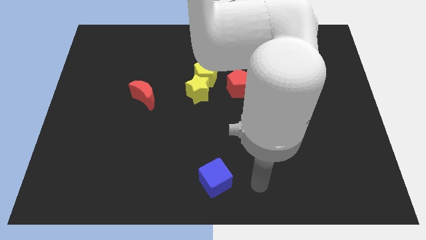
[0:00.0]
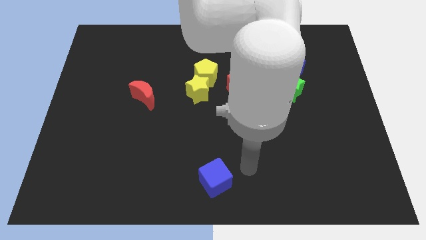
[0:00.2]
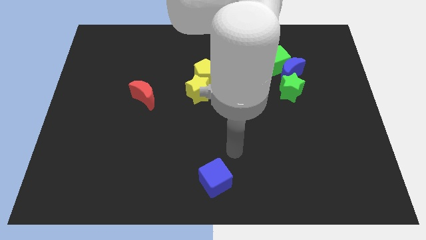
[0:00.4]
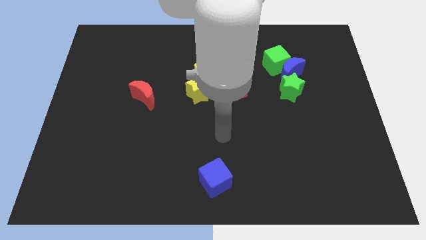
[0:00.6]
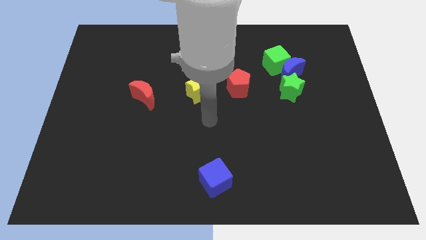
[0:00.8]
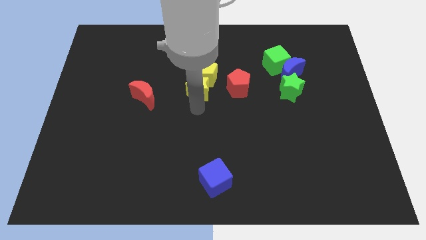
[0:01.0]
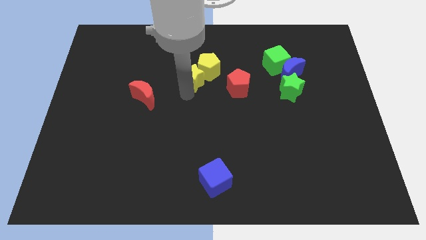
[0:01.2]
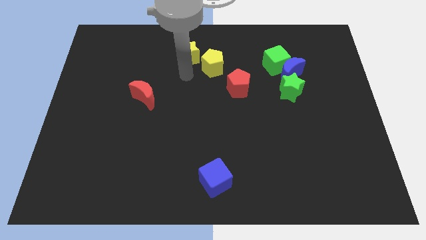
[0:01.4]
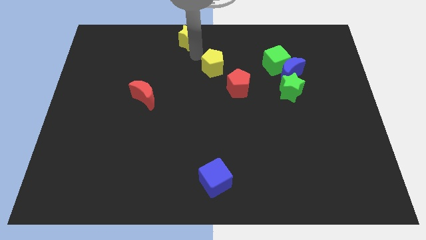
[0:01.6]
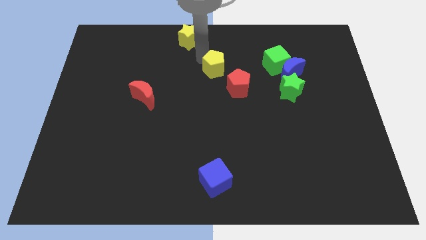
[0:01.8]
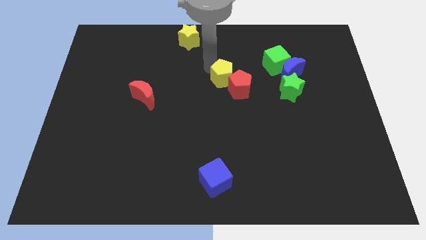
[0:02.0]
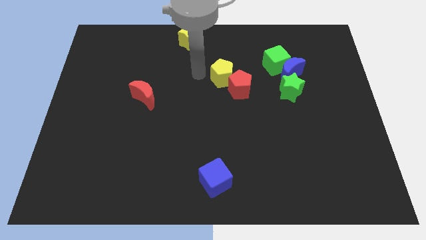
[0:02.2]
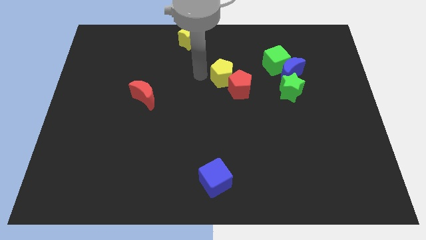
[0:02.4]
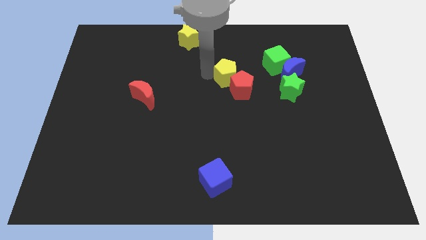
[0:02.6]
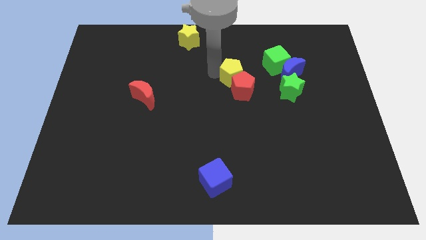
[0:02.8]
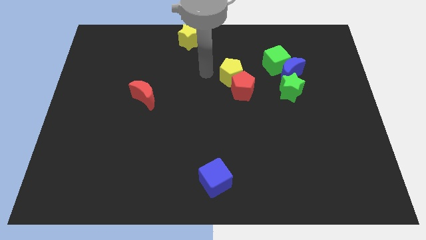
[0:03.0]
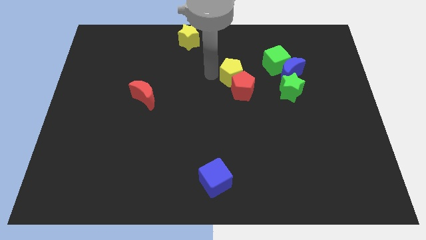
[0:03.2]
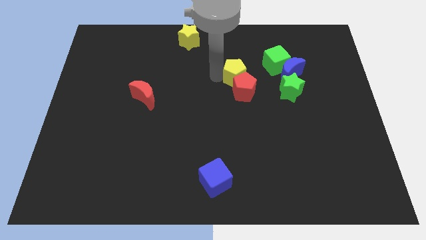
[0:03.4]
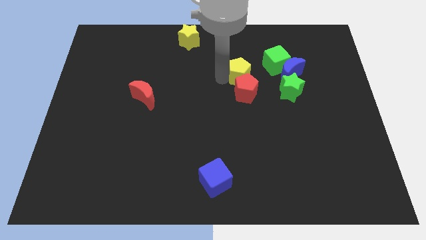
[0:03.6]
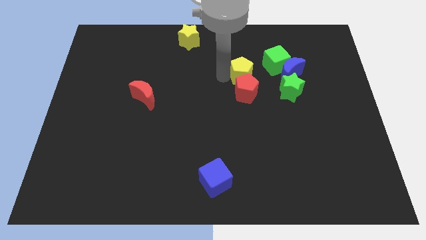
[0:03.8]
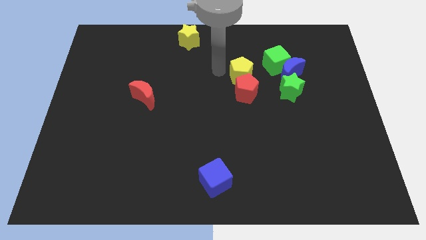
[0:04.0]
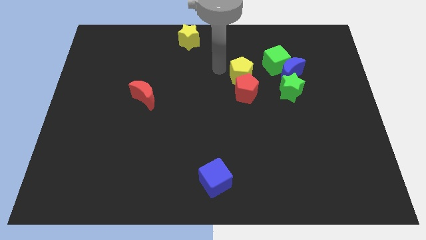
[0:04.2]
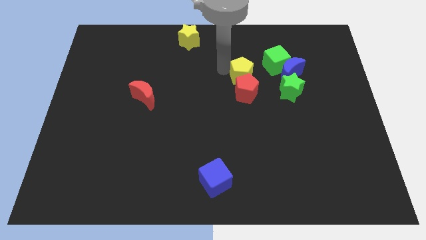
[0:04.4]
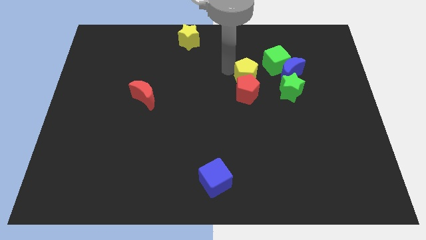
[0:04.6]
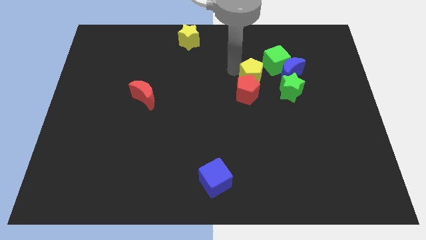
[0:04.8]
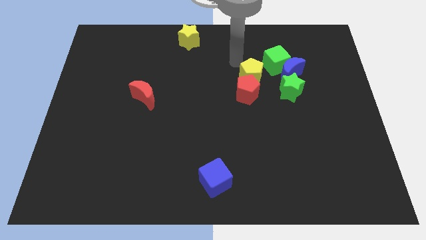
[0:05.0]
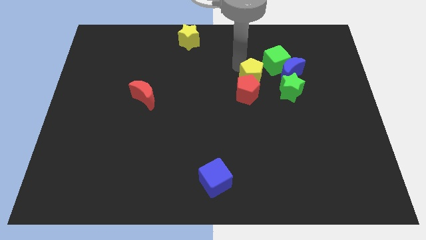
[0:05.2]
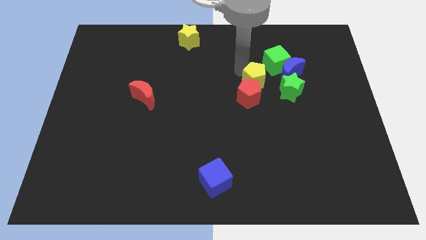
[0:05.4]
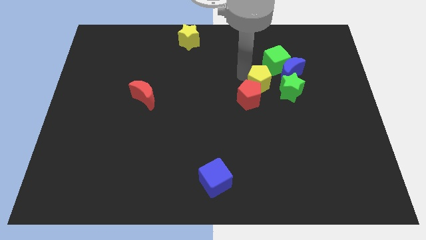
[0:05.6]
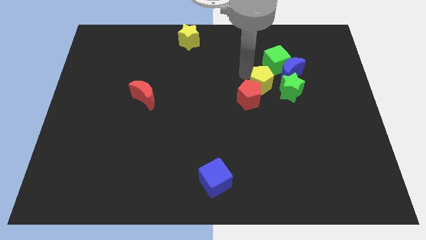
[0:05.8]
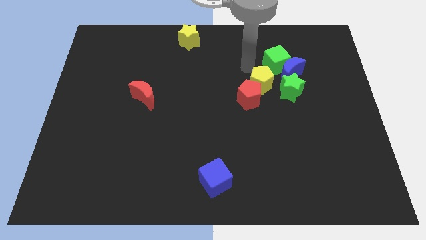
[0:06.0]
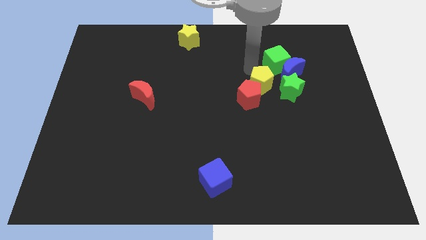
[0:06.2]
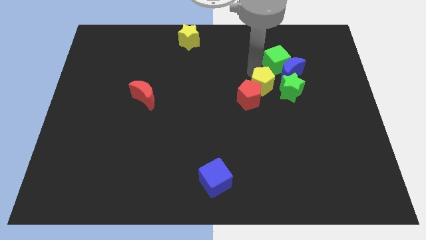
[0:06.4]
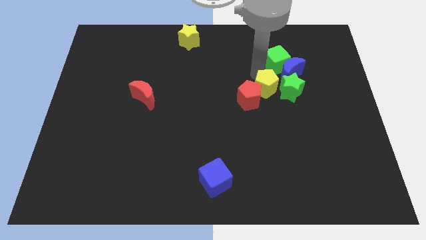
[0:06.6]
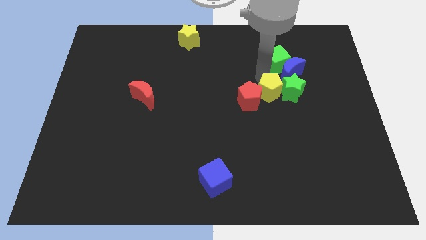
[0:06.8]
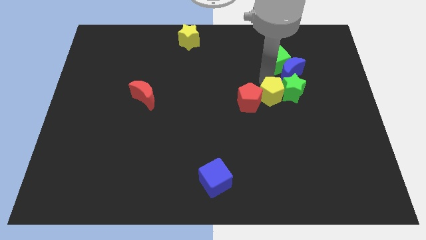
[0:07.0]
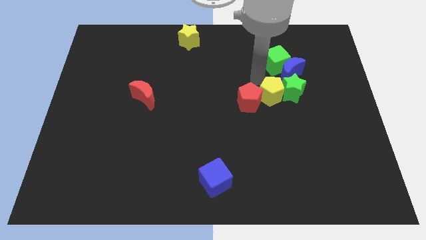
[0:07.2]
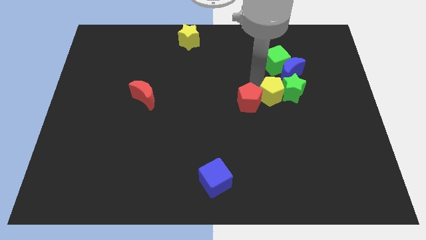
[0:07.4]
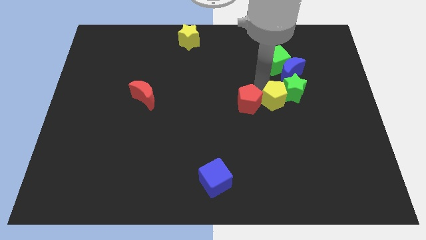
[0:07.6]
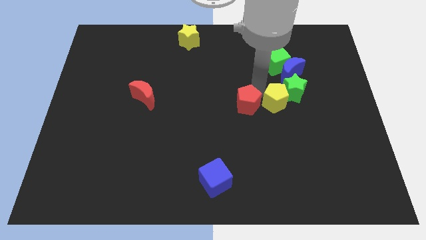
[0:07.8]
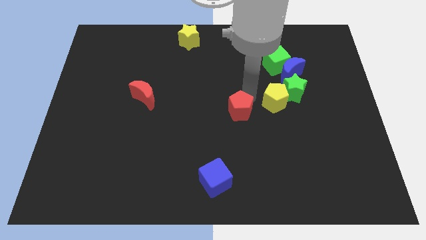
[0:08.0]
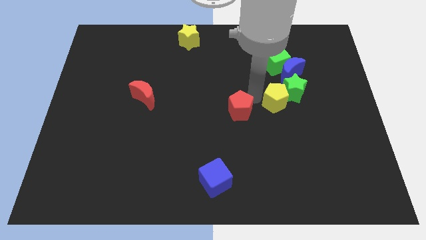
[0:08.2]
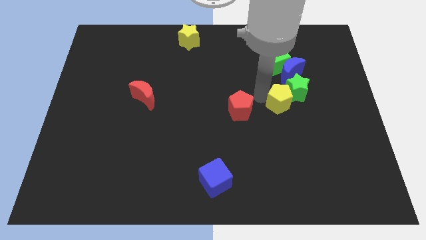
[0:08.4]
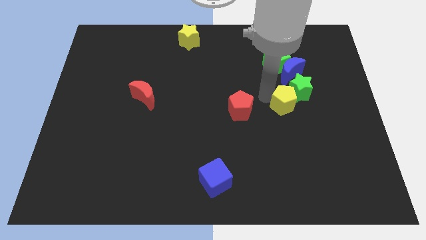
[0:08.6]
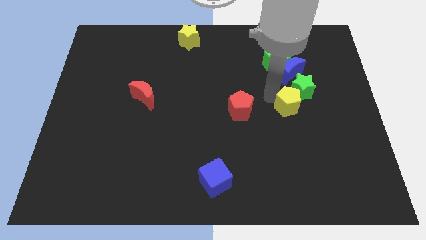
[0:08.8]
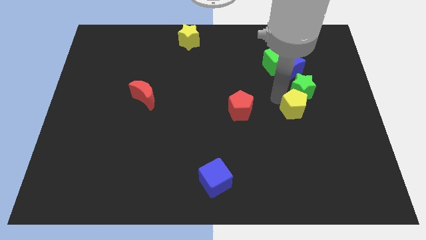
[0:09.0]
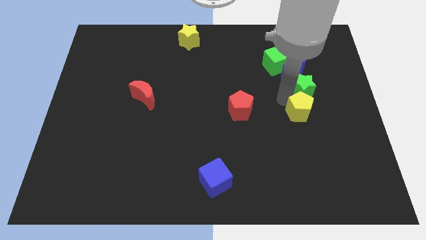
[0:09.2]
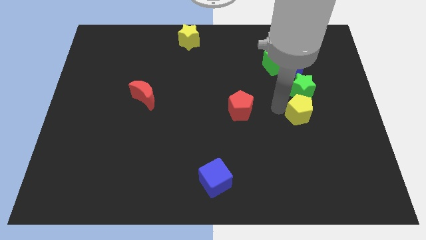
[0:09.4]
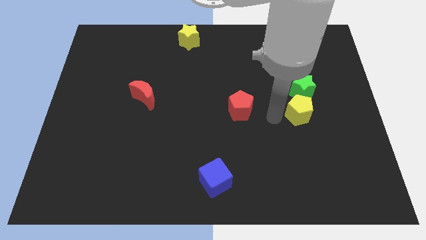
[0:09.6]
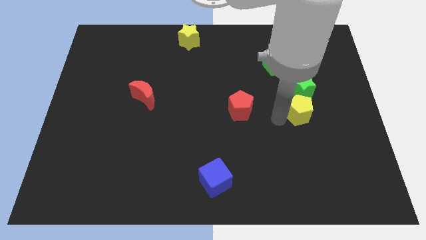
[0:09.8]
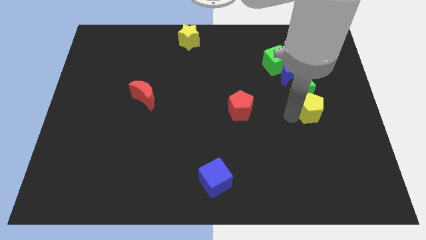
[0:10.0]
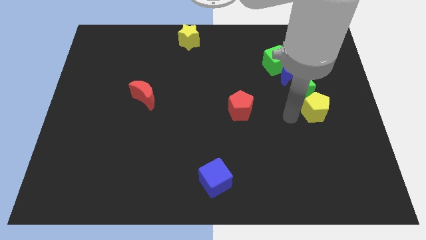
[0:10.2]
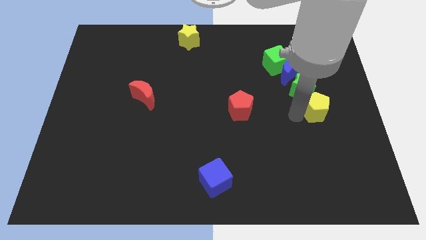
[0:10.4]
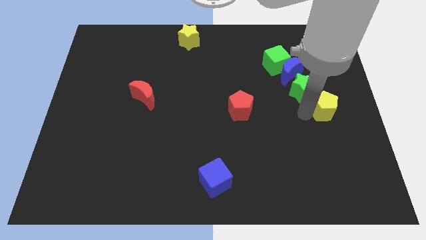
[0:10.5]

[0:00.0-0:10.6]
move the yellow pentagon to the right side
